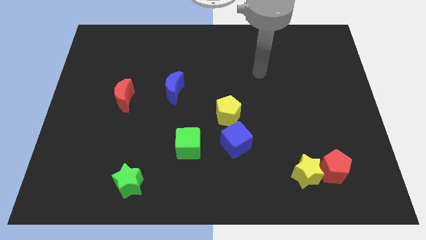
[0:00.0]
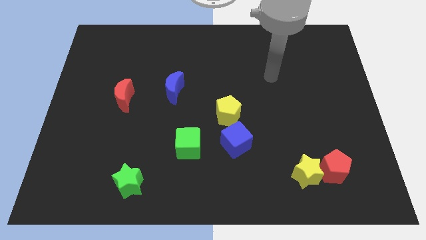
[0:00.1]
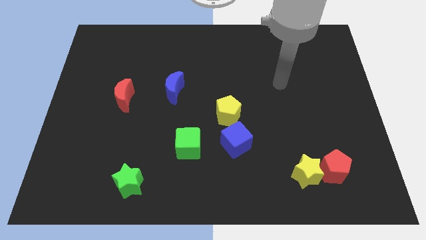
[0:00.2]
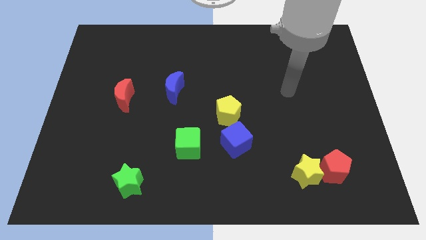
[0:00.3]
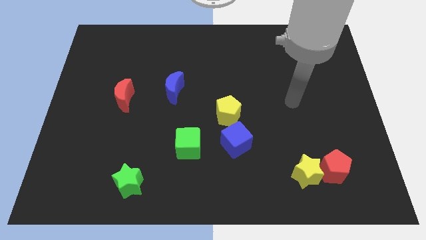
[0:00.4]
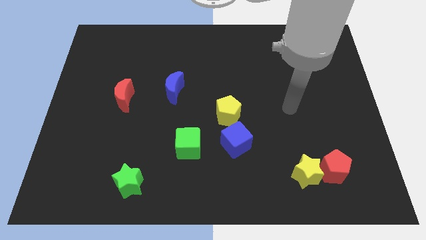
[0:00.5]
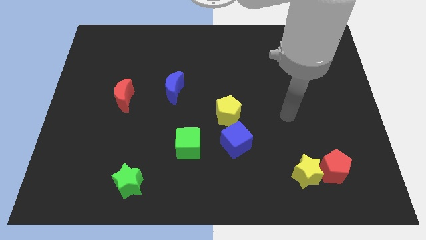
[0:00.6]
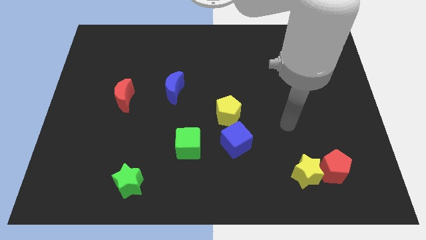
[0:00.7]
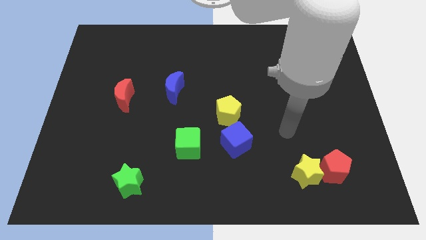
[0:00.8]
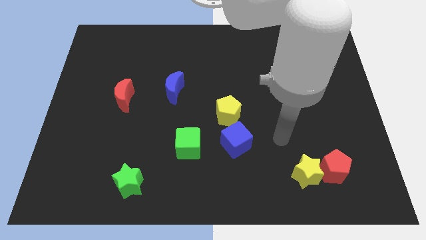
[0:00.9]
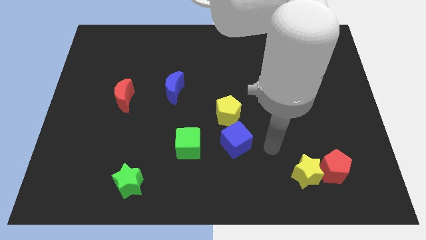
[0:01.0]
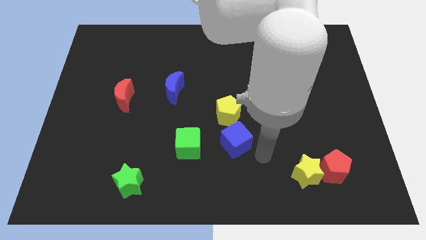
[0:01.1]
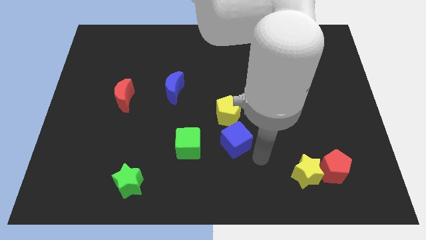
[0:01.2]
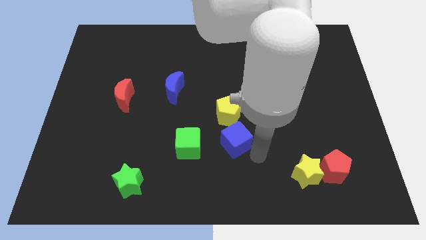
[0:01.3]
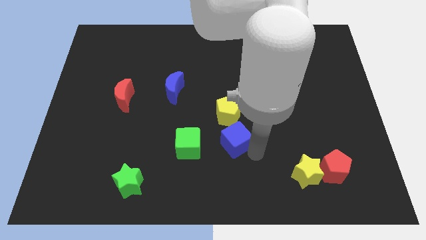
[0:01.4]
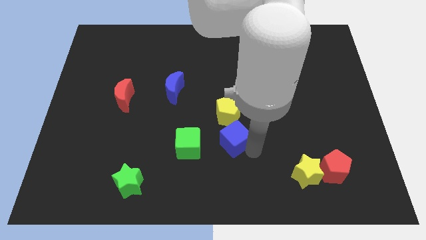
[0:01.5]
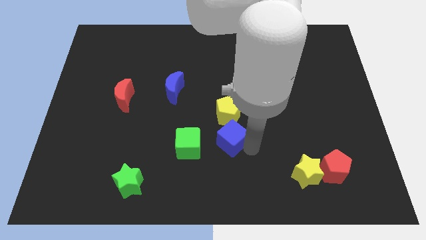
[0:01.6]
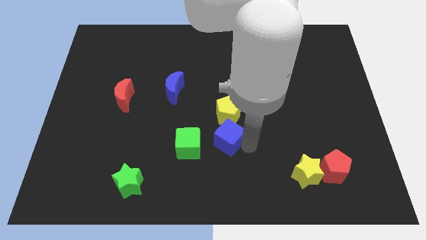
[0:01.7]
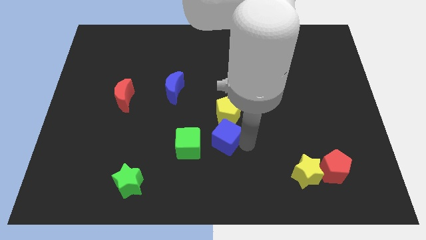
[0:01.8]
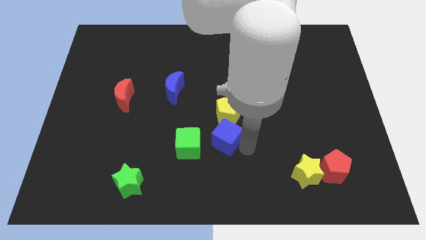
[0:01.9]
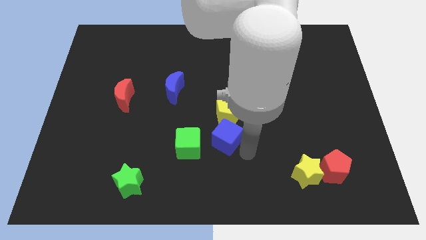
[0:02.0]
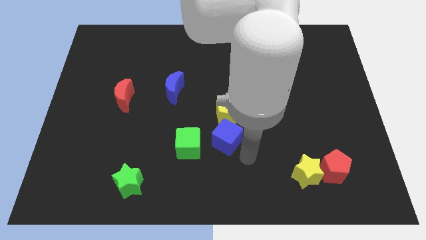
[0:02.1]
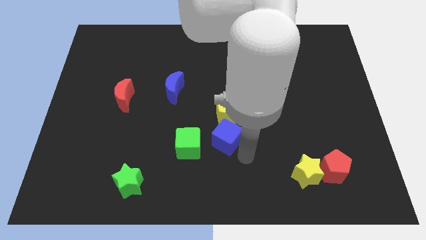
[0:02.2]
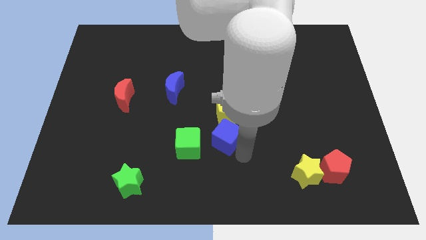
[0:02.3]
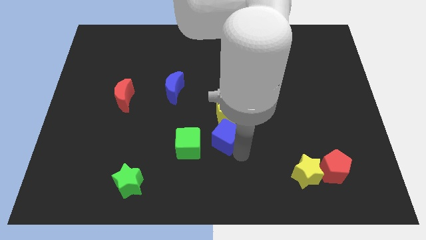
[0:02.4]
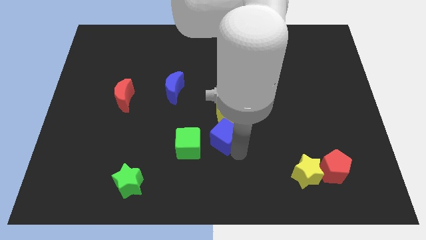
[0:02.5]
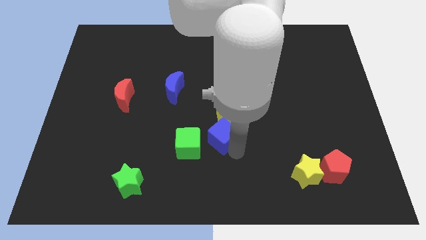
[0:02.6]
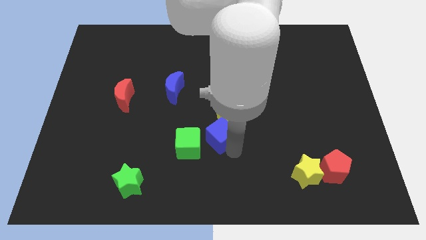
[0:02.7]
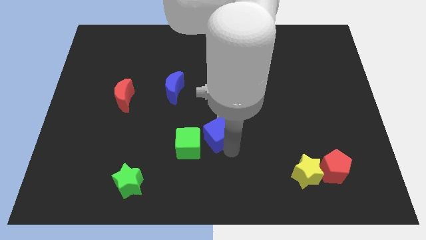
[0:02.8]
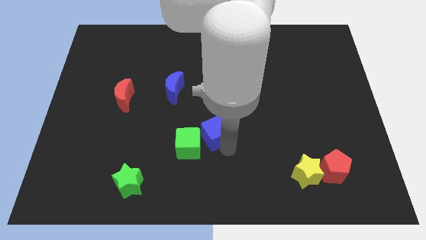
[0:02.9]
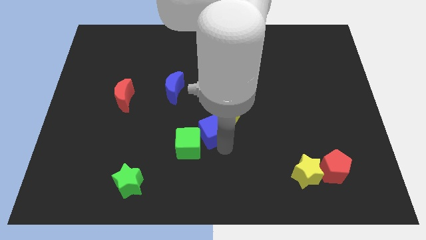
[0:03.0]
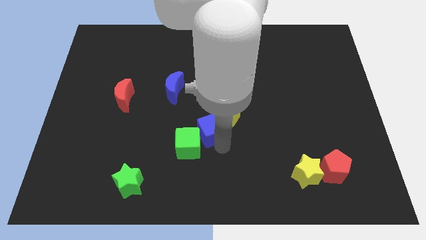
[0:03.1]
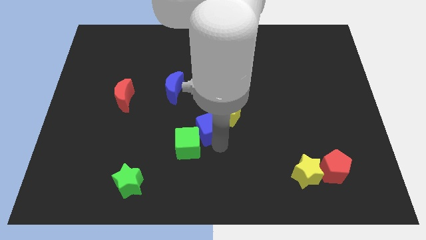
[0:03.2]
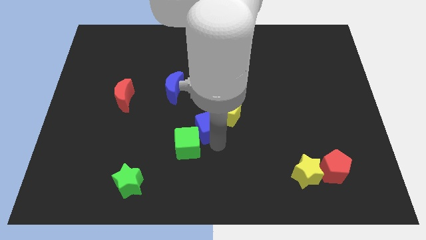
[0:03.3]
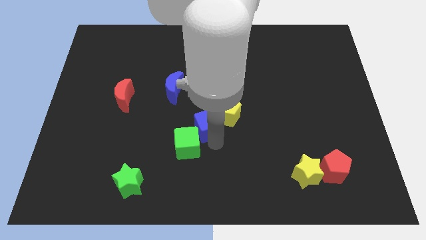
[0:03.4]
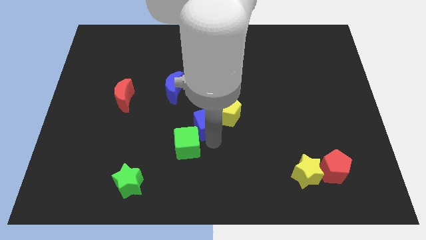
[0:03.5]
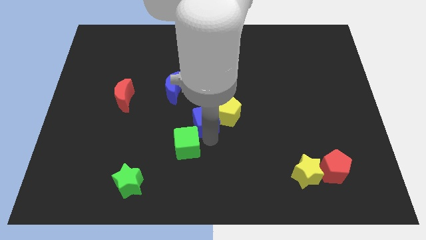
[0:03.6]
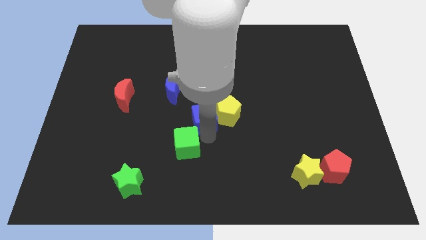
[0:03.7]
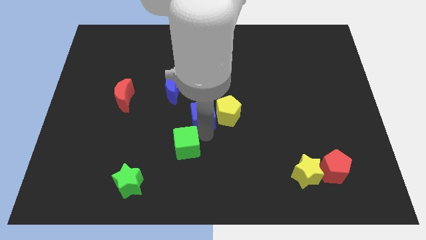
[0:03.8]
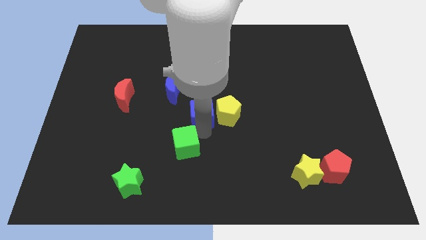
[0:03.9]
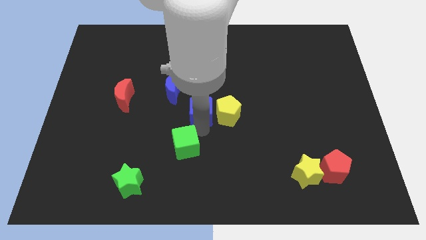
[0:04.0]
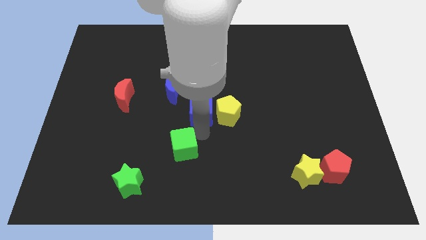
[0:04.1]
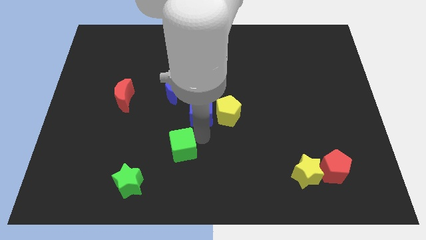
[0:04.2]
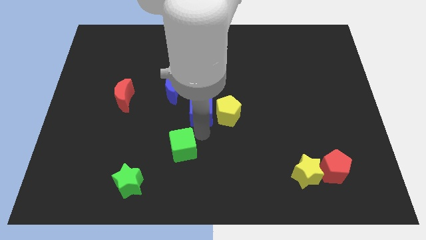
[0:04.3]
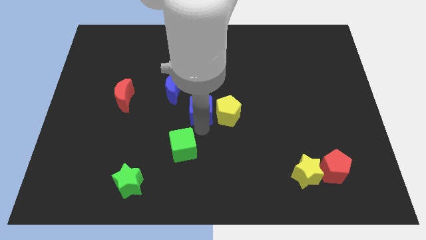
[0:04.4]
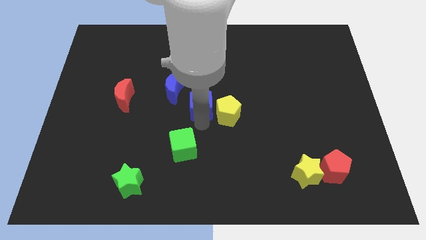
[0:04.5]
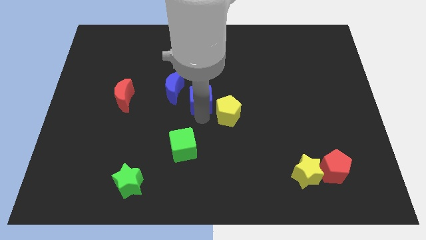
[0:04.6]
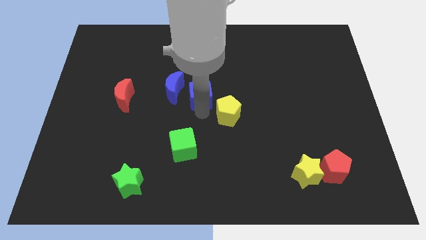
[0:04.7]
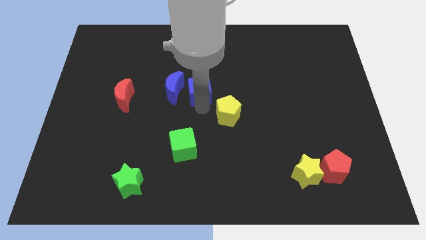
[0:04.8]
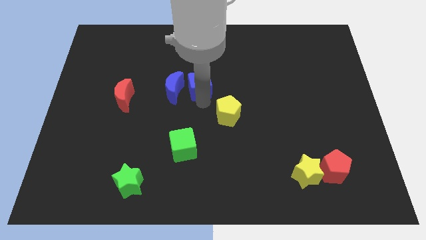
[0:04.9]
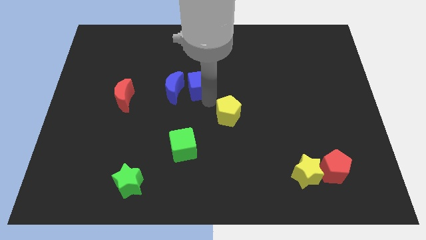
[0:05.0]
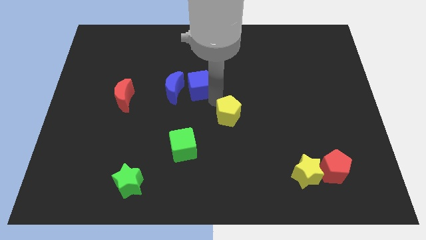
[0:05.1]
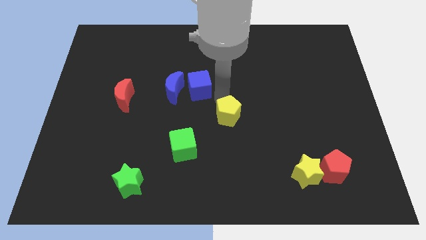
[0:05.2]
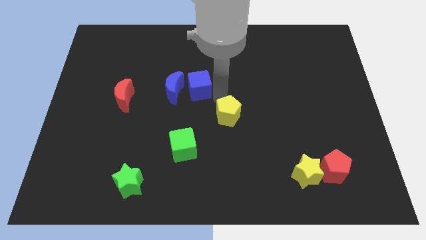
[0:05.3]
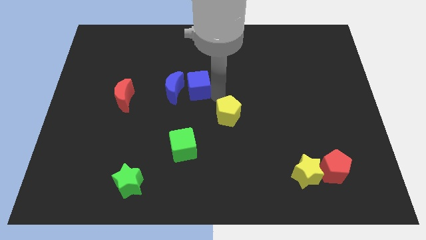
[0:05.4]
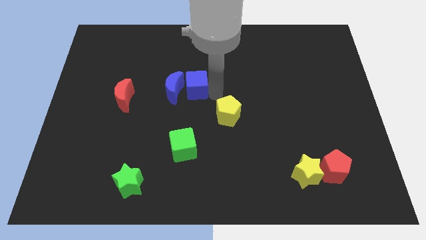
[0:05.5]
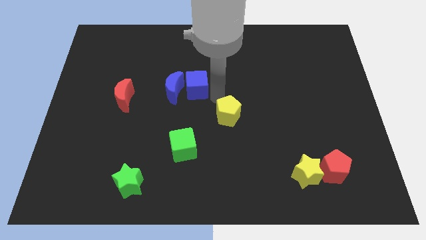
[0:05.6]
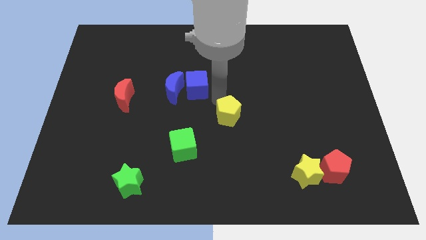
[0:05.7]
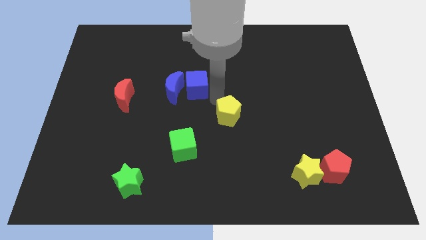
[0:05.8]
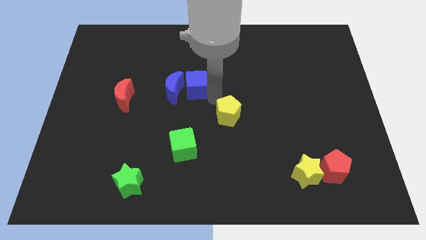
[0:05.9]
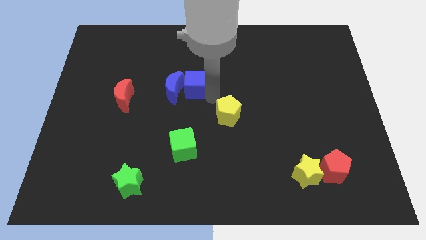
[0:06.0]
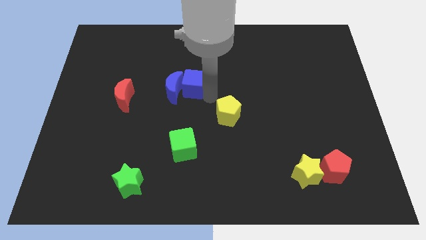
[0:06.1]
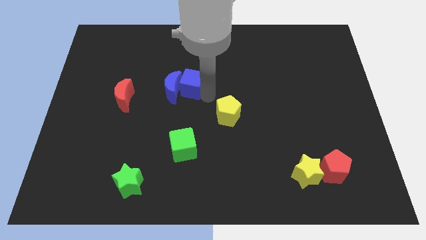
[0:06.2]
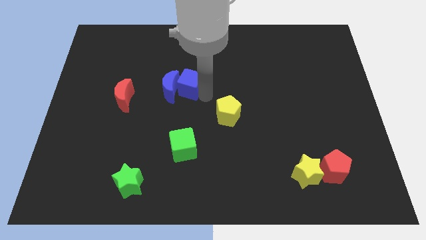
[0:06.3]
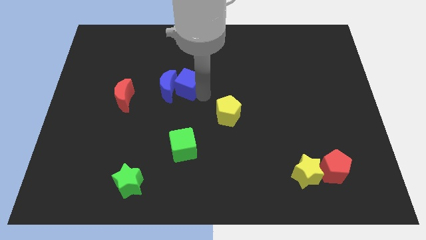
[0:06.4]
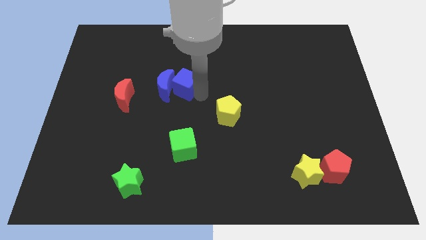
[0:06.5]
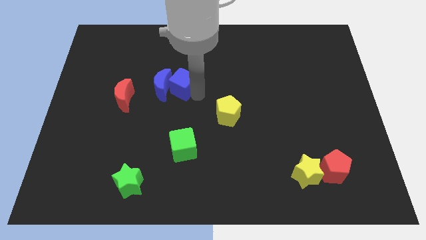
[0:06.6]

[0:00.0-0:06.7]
move the blue cube upwards and to the left

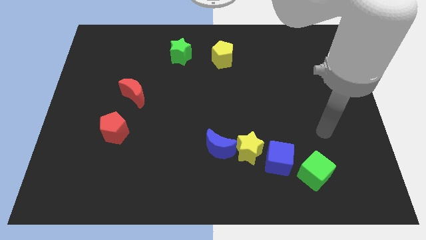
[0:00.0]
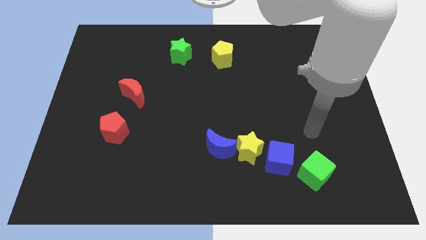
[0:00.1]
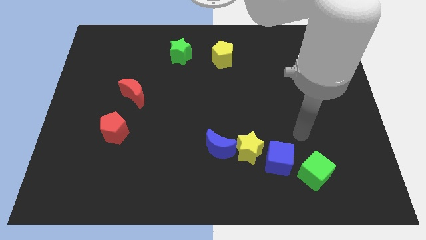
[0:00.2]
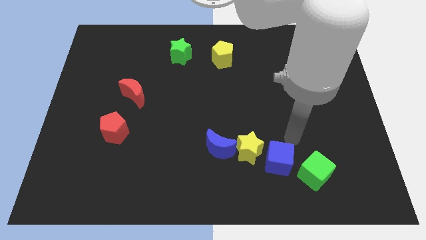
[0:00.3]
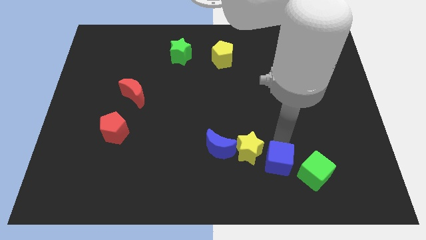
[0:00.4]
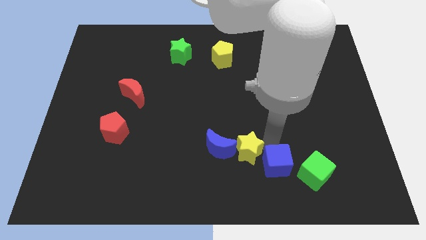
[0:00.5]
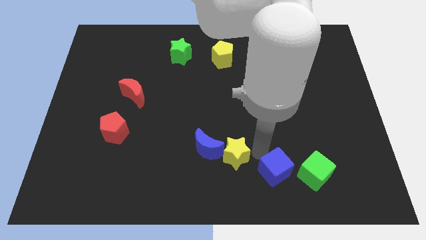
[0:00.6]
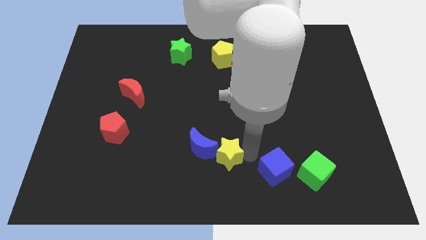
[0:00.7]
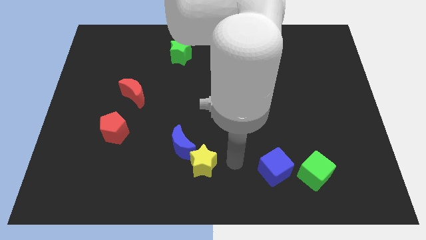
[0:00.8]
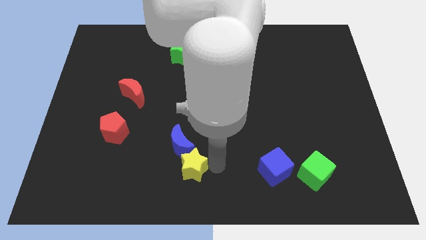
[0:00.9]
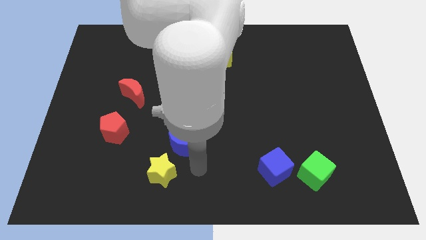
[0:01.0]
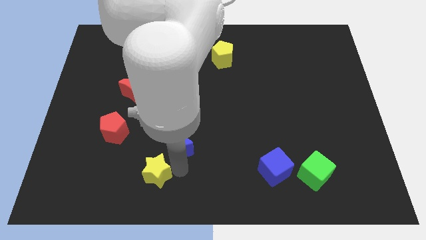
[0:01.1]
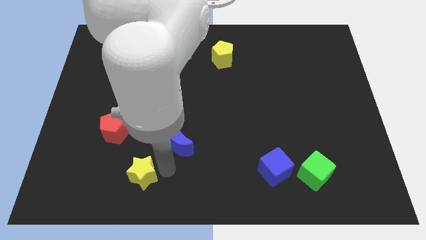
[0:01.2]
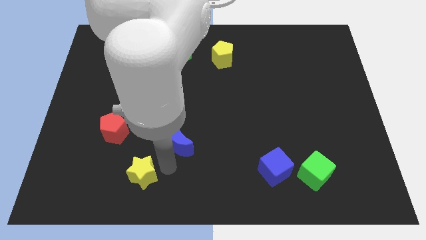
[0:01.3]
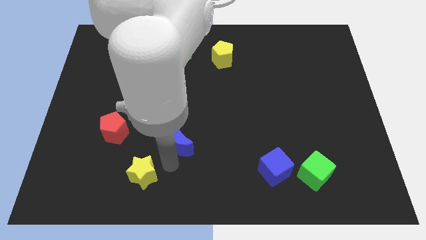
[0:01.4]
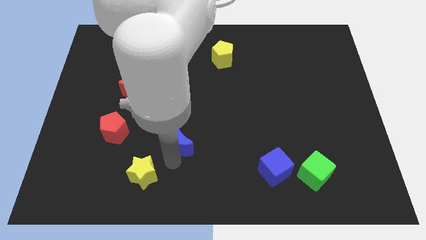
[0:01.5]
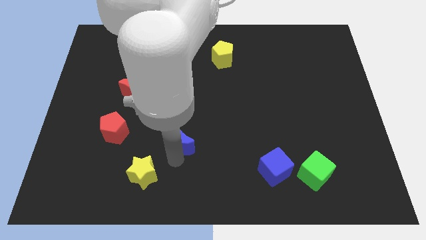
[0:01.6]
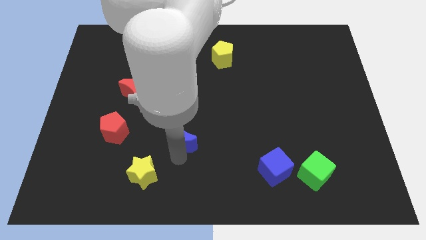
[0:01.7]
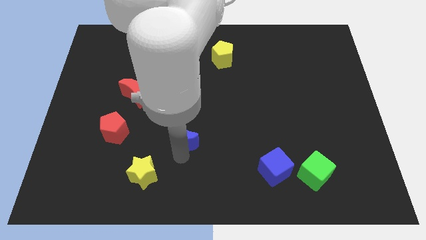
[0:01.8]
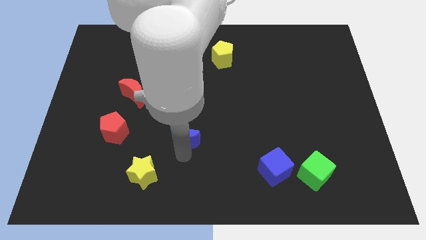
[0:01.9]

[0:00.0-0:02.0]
slide the blue moon diagonally up and left slightly
